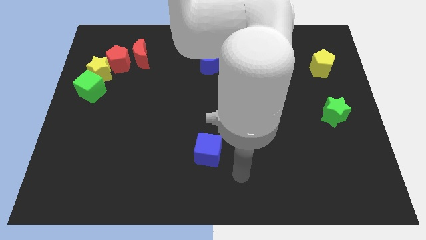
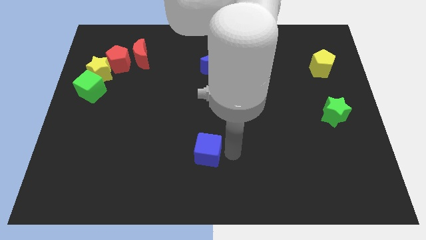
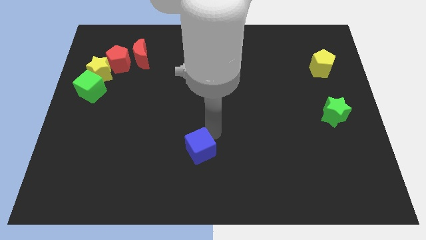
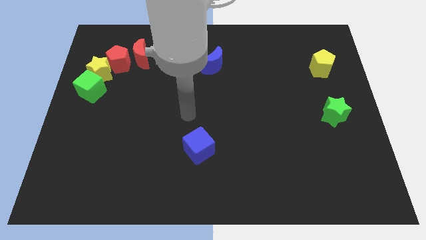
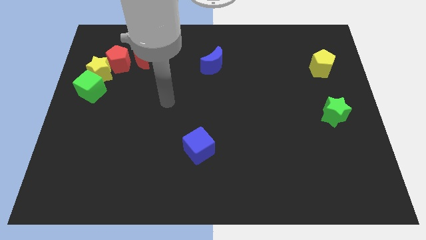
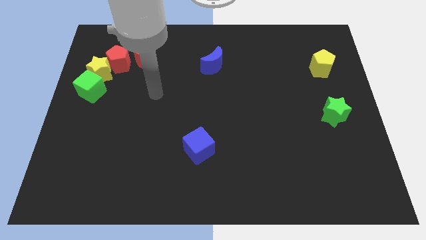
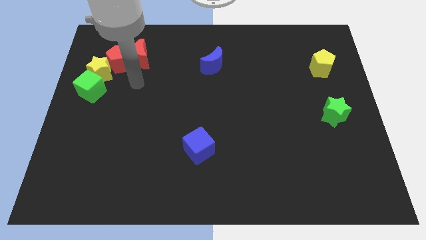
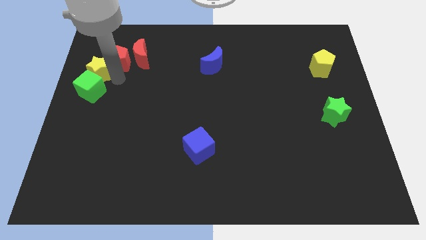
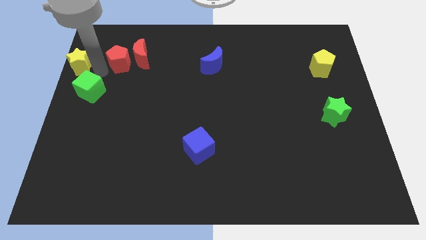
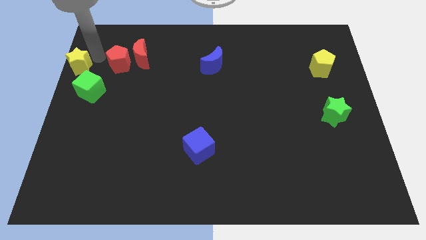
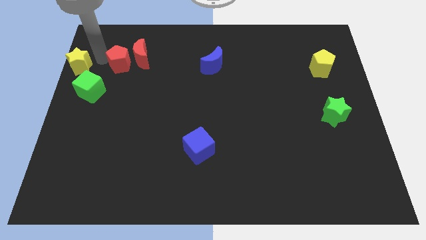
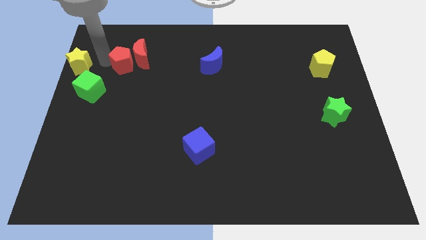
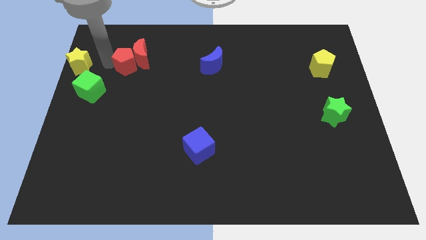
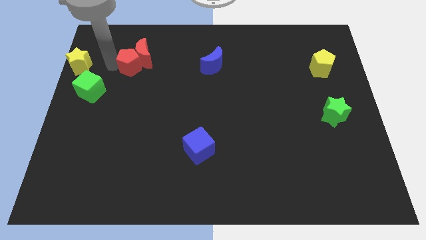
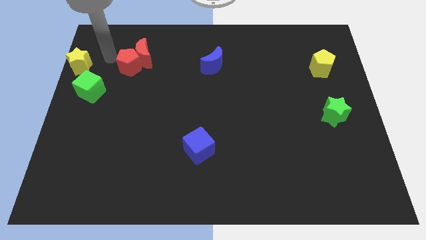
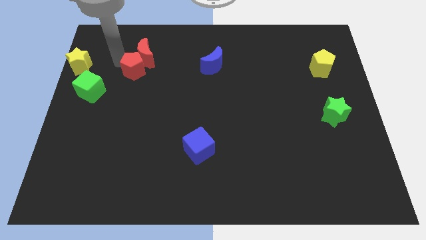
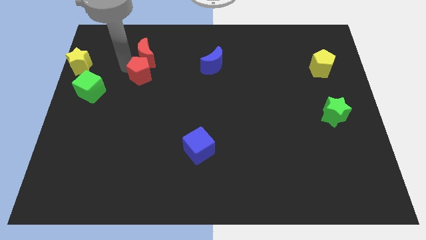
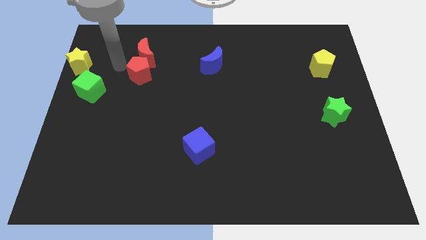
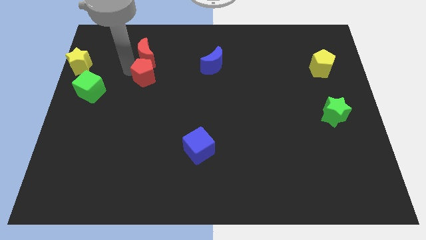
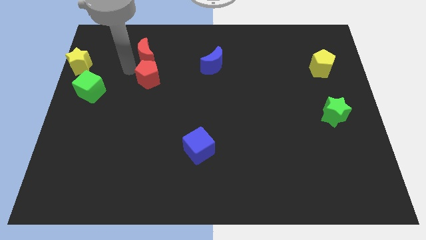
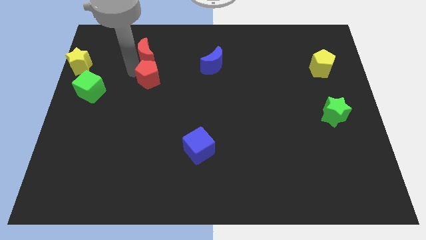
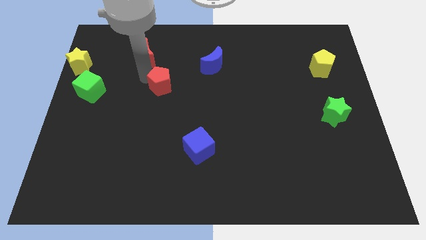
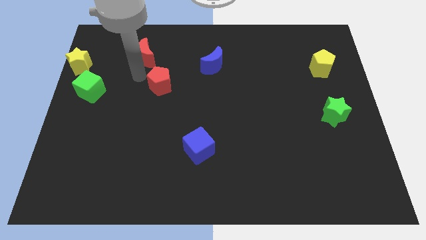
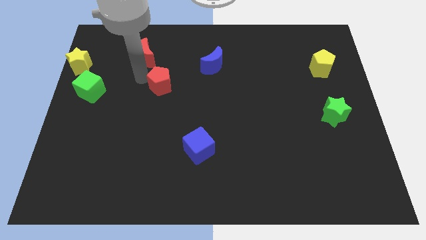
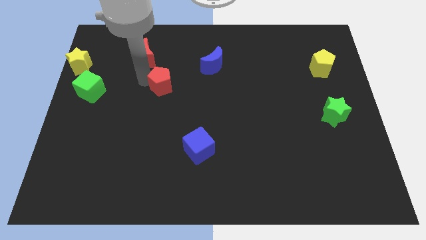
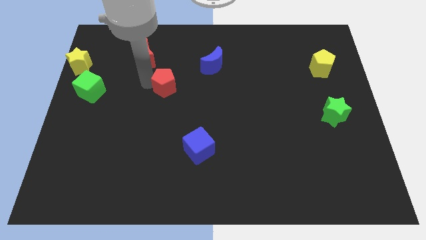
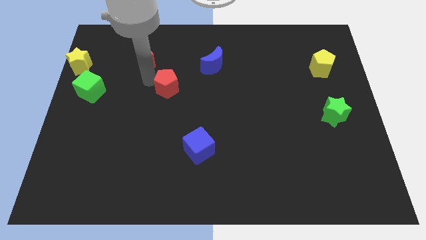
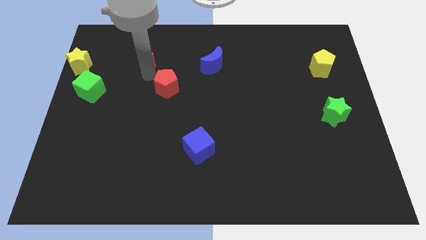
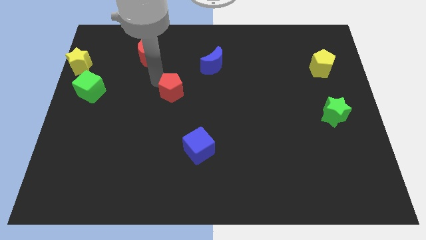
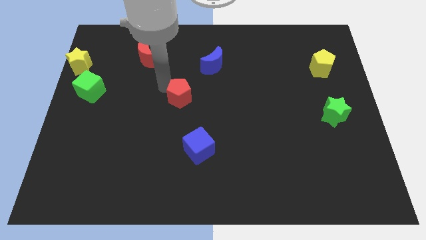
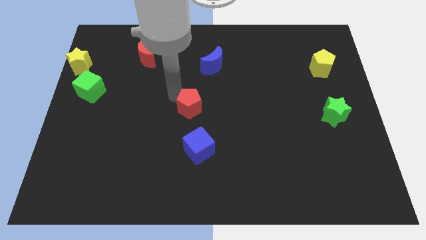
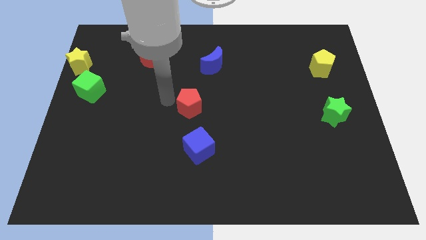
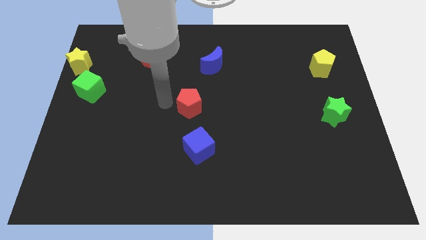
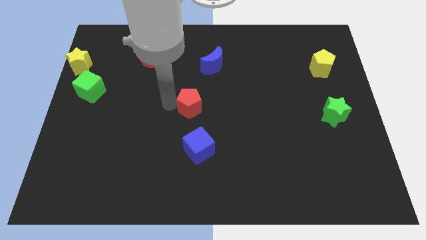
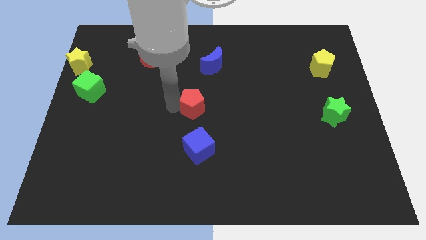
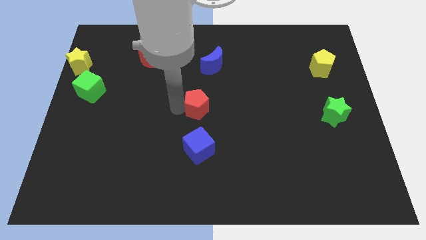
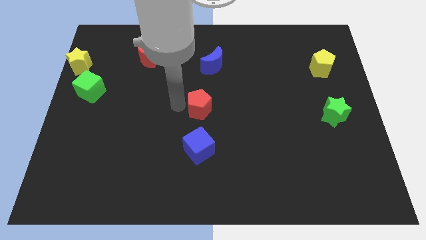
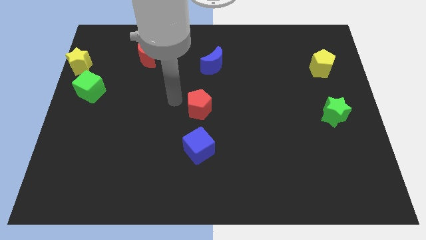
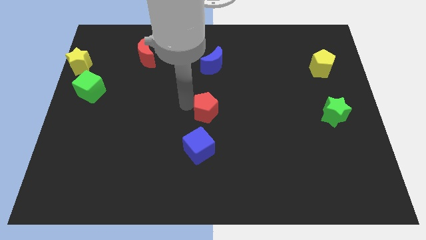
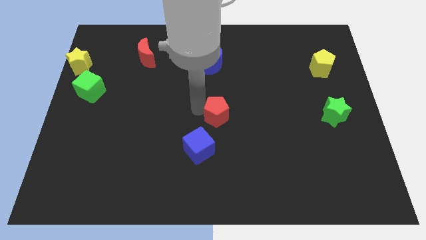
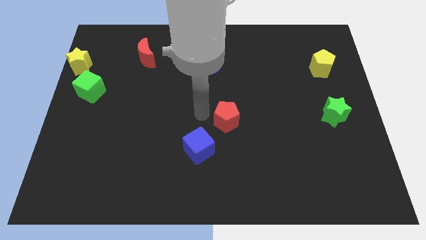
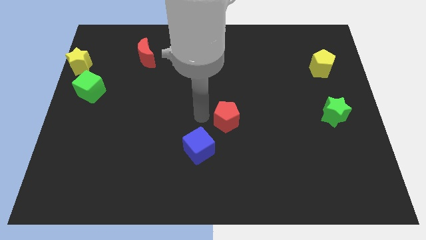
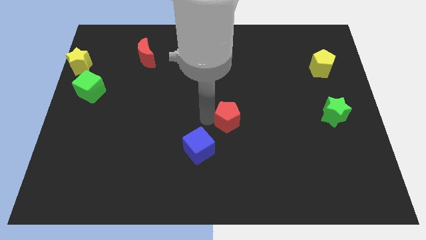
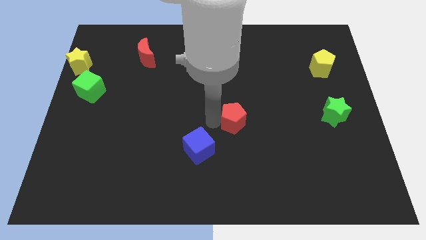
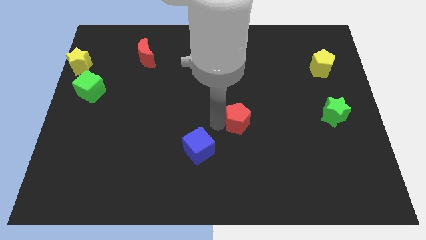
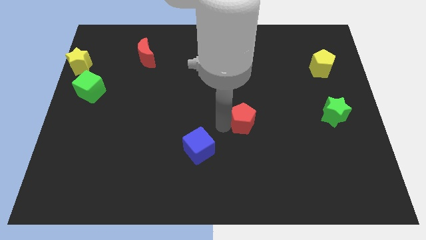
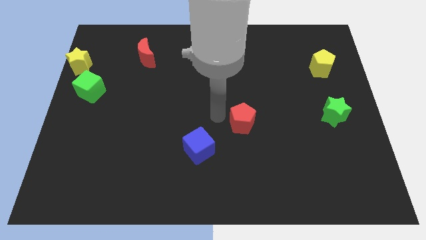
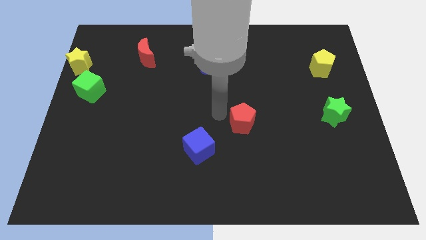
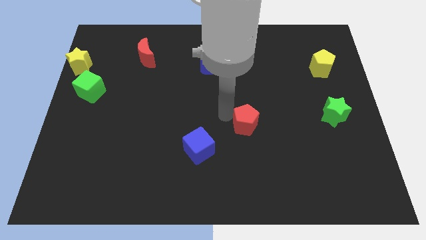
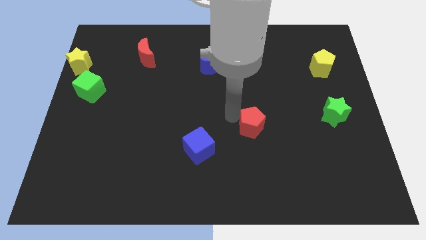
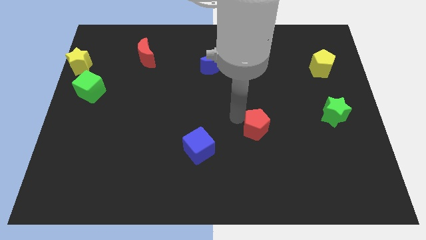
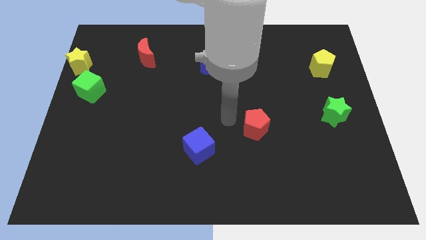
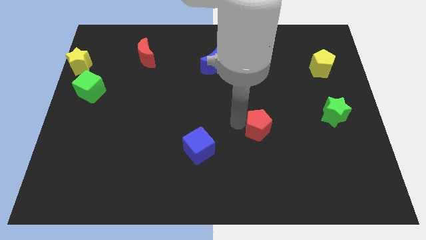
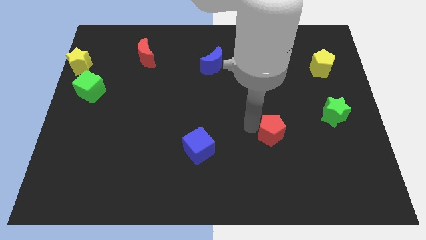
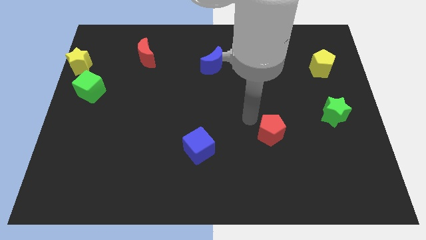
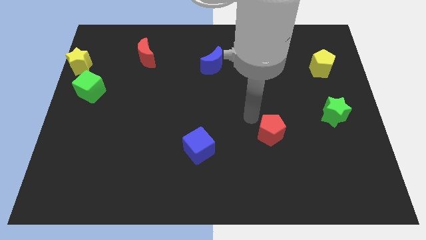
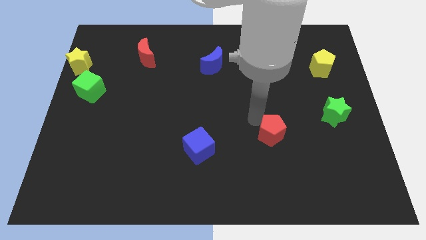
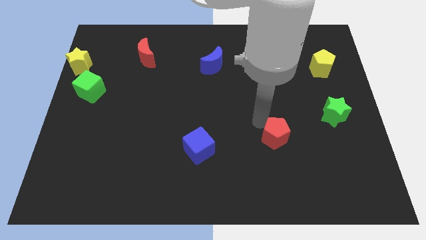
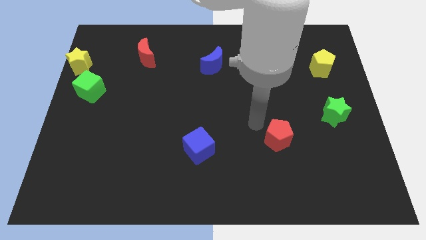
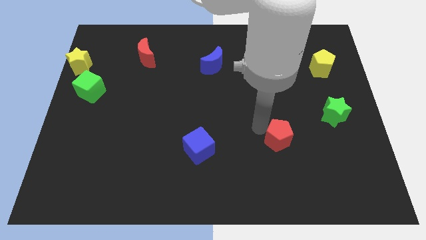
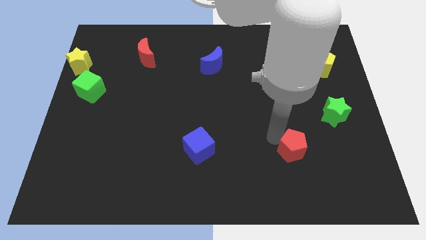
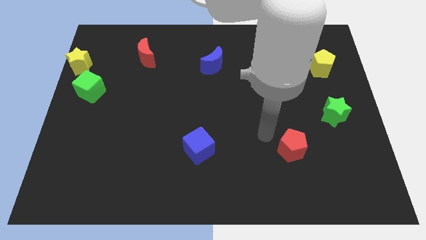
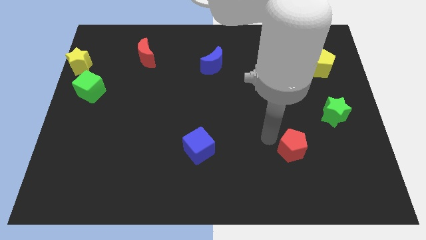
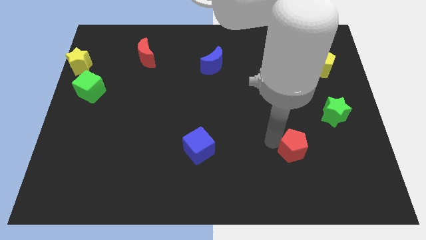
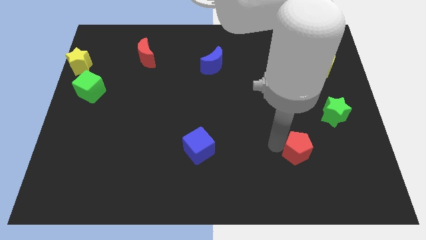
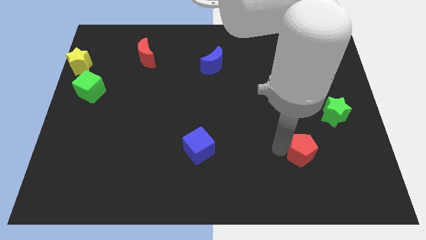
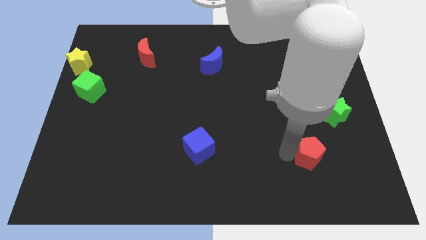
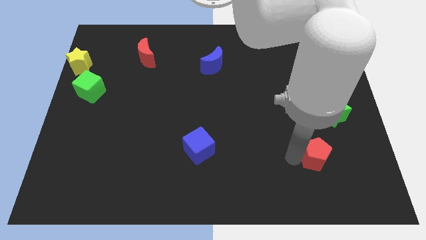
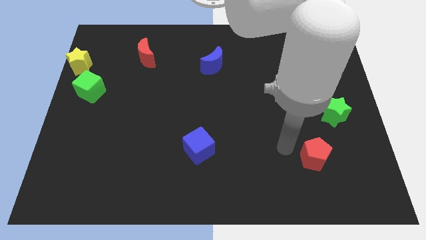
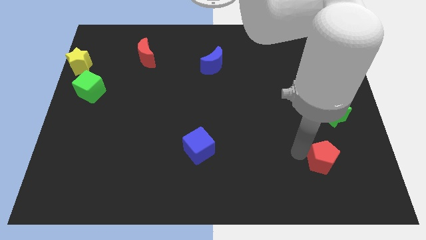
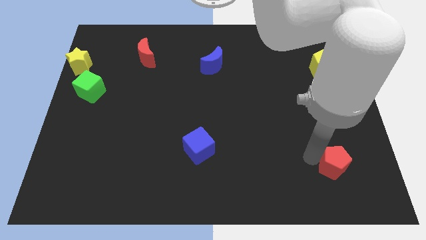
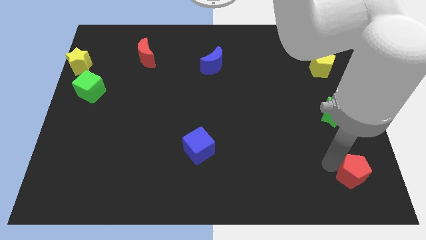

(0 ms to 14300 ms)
push the red pentagon to the bottom right
